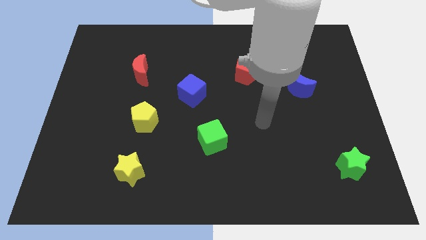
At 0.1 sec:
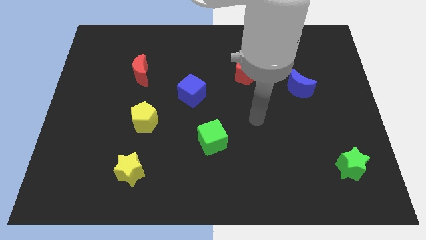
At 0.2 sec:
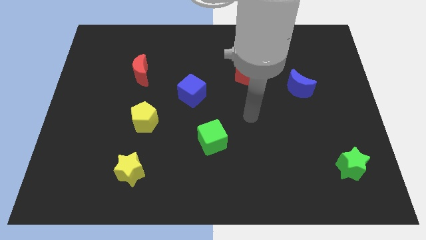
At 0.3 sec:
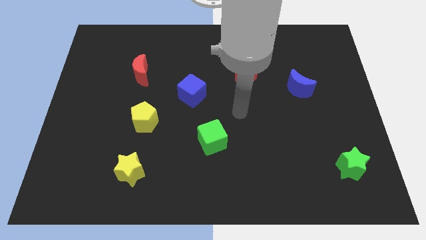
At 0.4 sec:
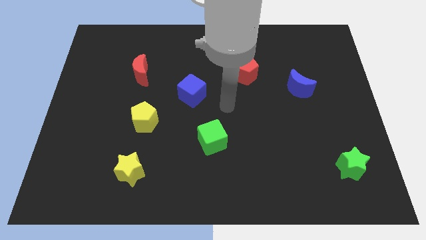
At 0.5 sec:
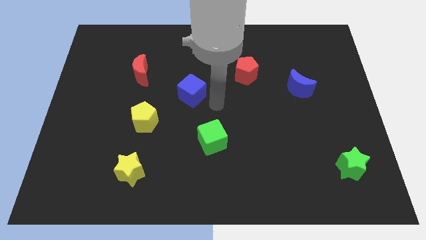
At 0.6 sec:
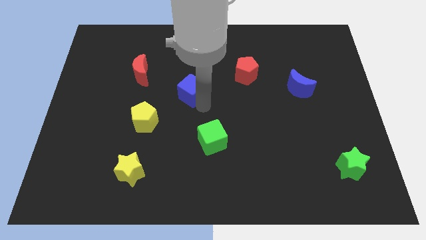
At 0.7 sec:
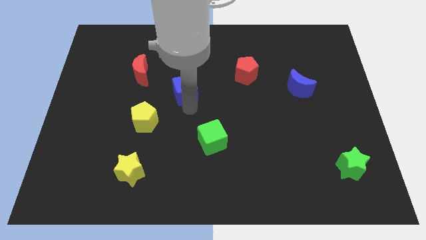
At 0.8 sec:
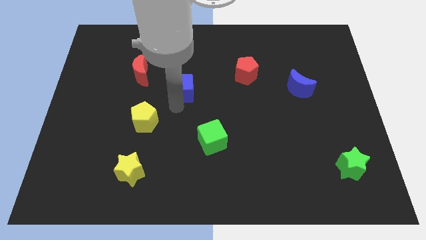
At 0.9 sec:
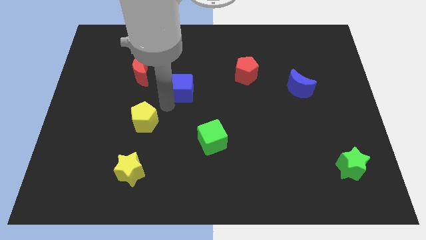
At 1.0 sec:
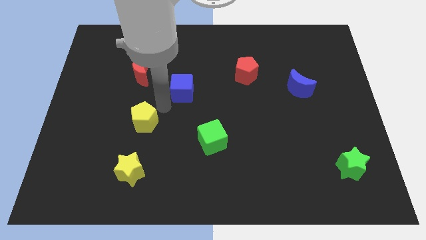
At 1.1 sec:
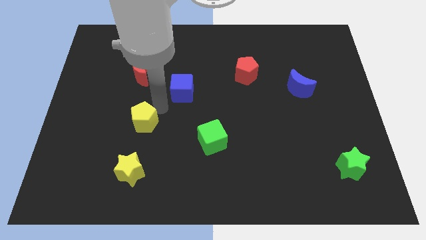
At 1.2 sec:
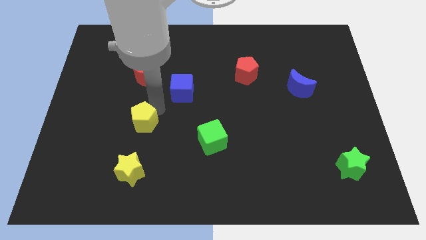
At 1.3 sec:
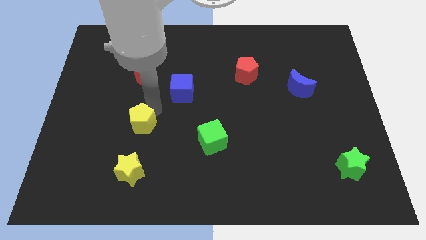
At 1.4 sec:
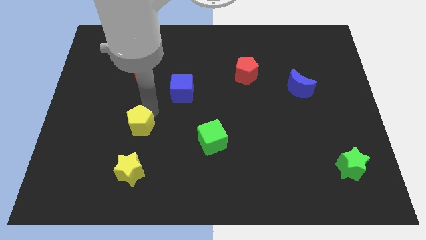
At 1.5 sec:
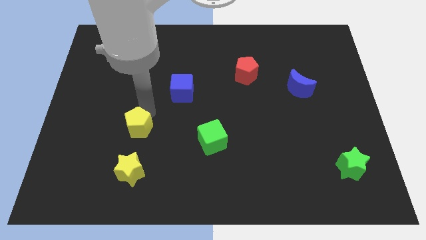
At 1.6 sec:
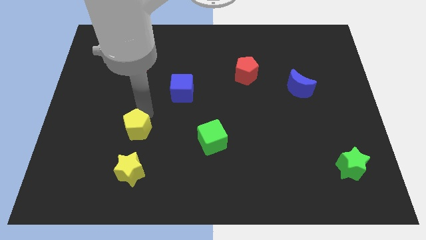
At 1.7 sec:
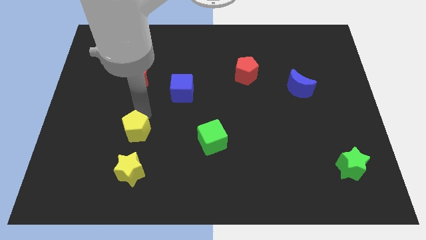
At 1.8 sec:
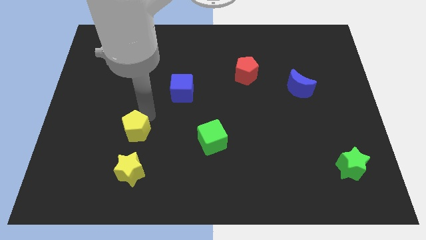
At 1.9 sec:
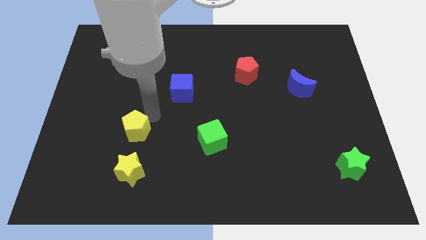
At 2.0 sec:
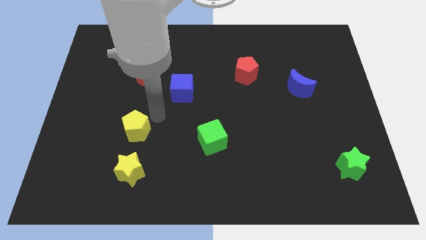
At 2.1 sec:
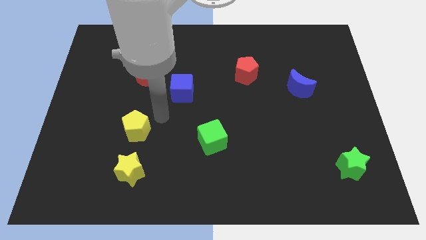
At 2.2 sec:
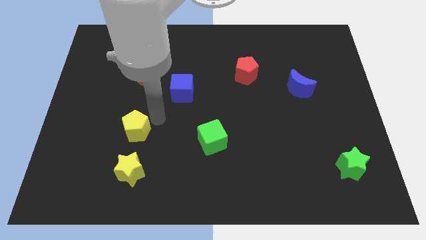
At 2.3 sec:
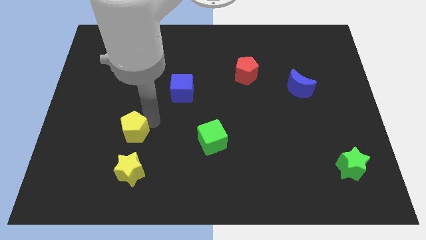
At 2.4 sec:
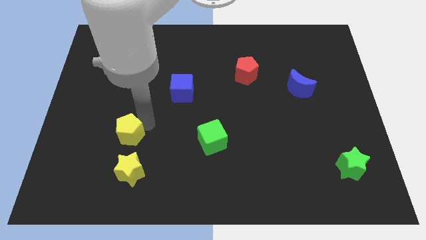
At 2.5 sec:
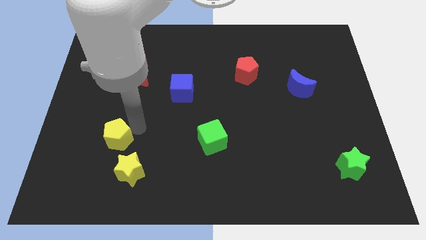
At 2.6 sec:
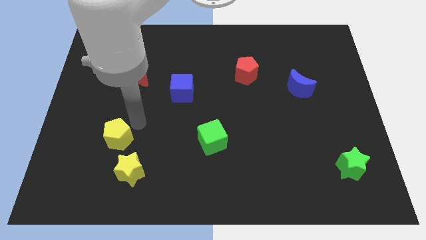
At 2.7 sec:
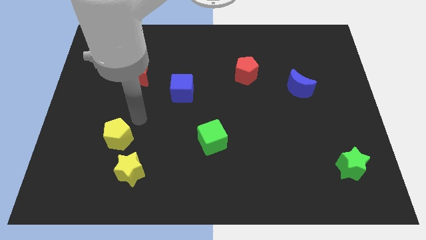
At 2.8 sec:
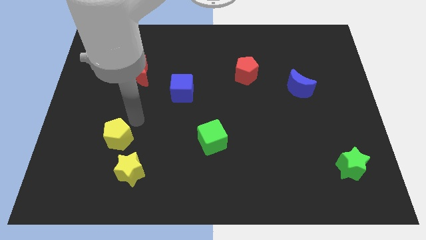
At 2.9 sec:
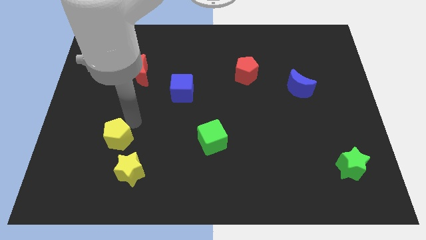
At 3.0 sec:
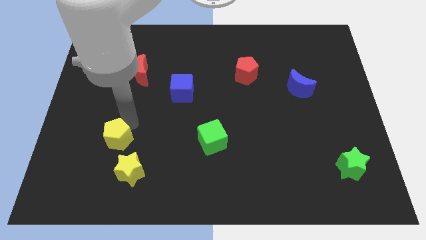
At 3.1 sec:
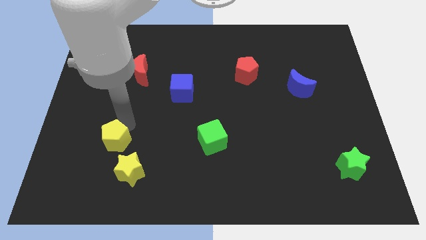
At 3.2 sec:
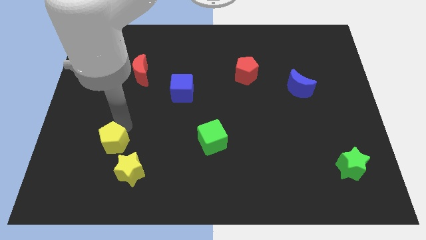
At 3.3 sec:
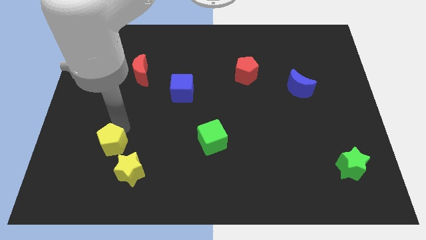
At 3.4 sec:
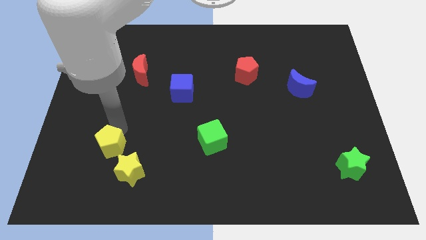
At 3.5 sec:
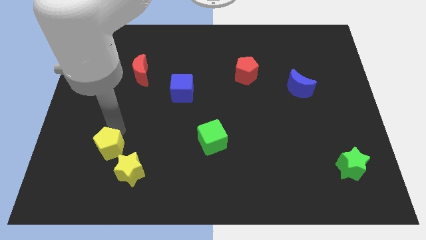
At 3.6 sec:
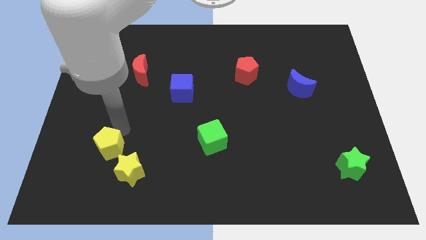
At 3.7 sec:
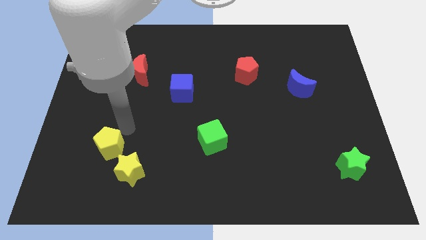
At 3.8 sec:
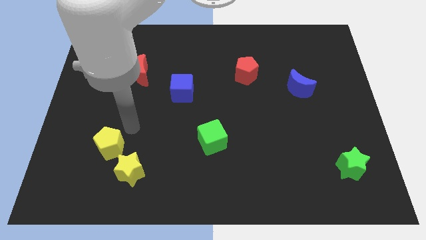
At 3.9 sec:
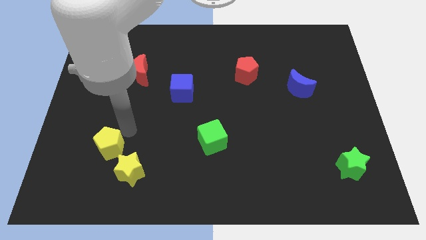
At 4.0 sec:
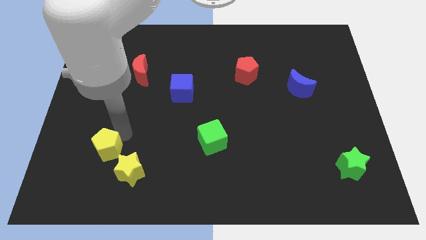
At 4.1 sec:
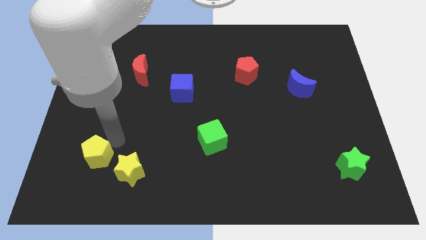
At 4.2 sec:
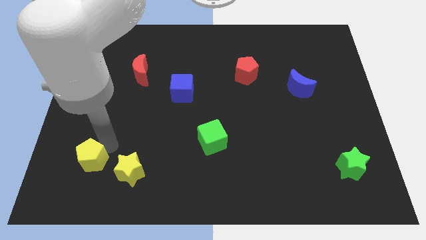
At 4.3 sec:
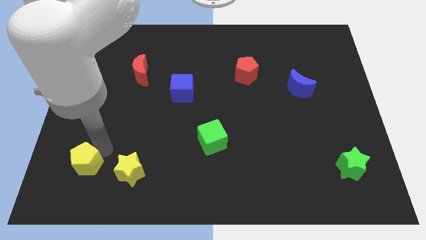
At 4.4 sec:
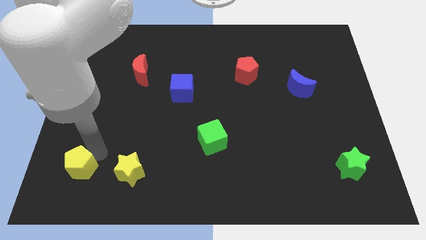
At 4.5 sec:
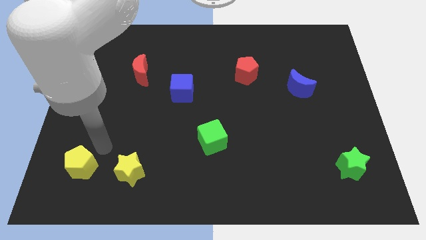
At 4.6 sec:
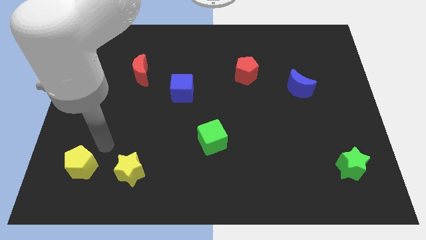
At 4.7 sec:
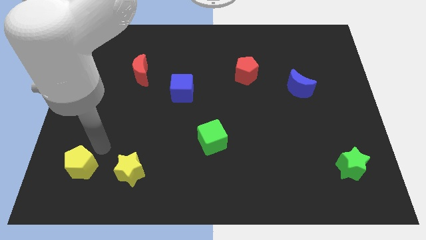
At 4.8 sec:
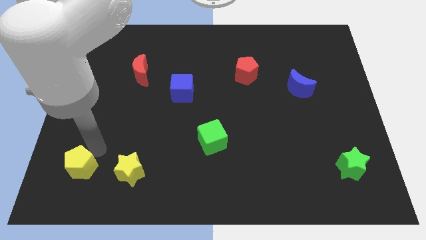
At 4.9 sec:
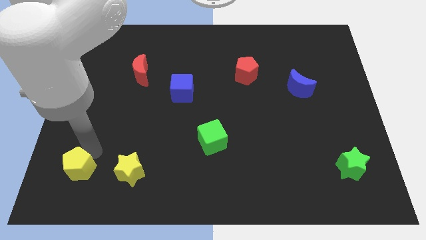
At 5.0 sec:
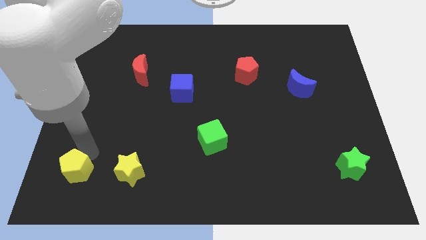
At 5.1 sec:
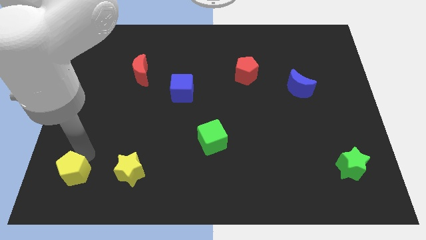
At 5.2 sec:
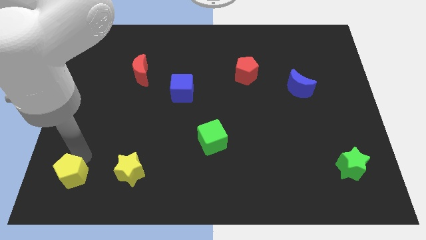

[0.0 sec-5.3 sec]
slide the yellow pentagon to the bottom left corner
